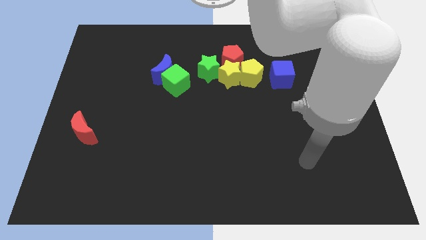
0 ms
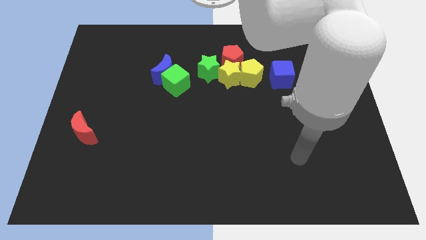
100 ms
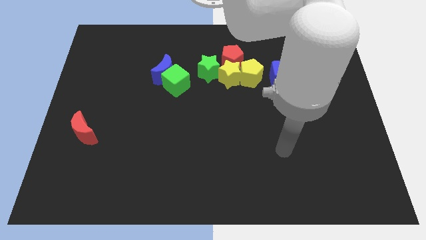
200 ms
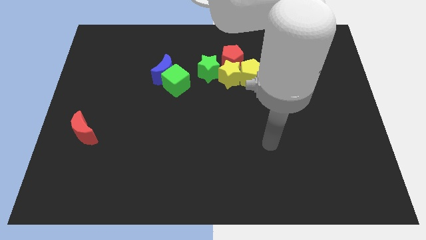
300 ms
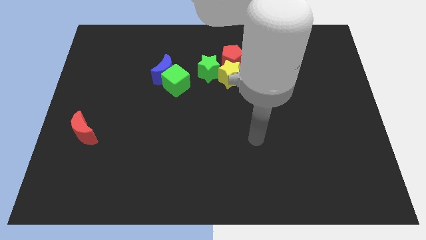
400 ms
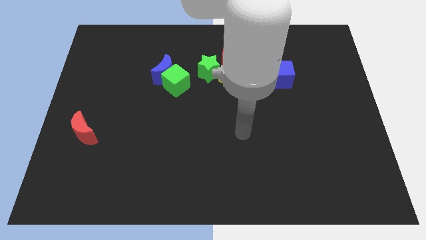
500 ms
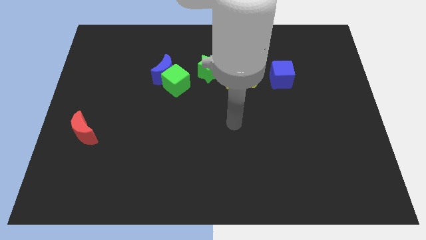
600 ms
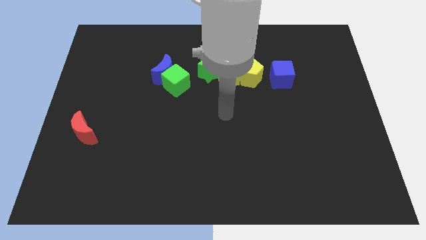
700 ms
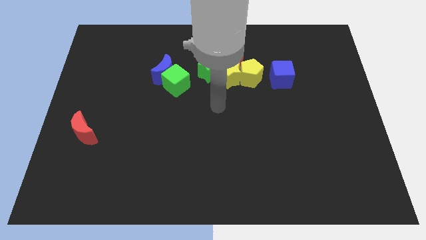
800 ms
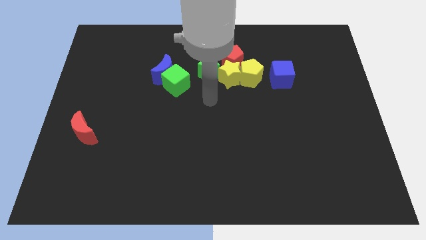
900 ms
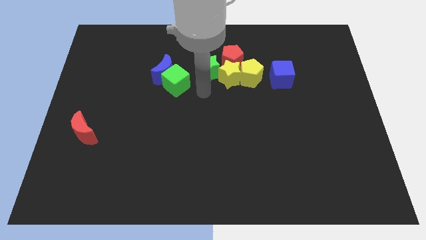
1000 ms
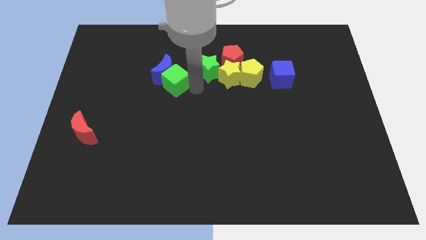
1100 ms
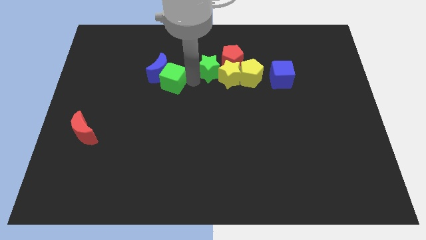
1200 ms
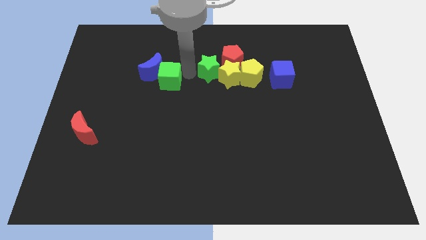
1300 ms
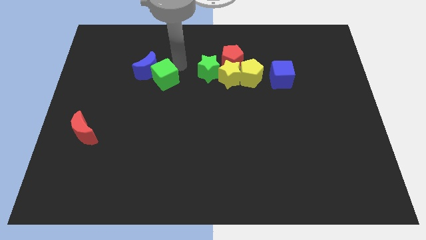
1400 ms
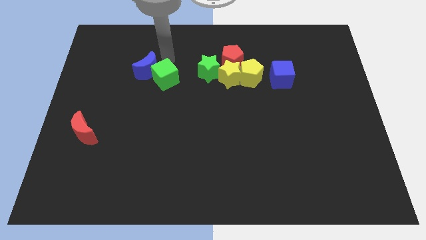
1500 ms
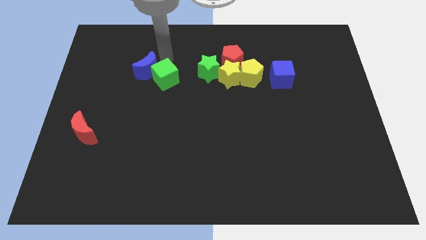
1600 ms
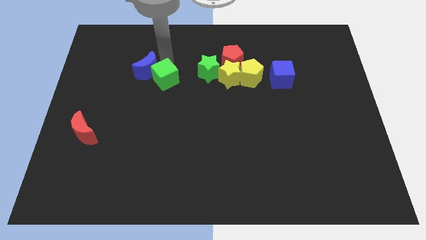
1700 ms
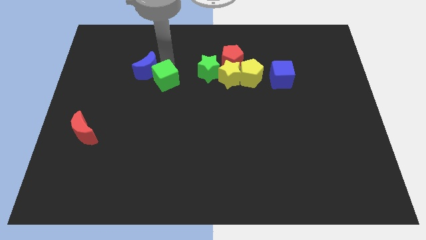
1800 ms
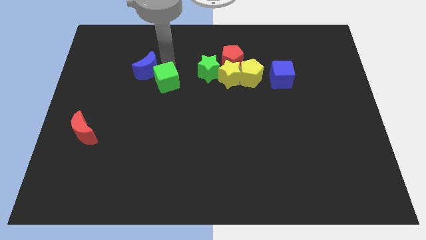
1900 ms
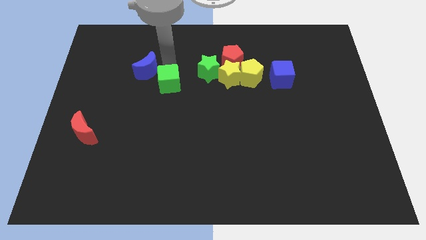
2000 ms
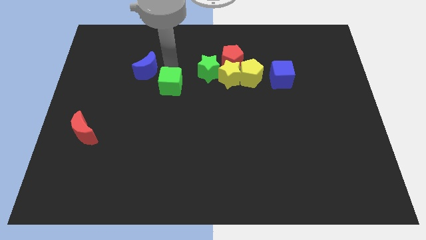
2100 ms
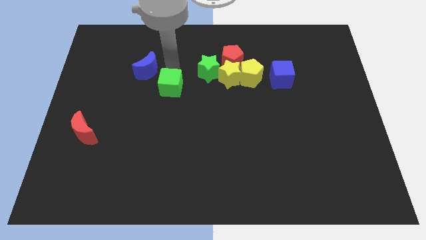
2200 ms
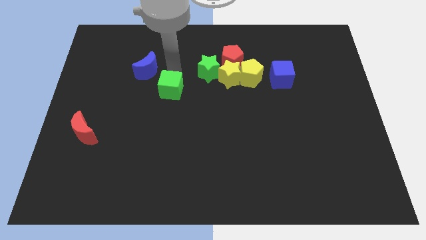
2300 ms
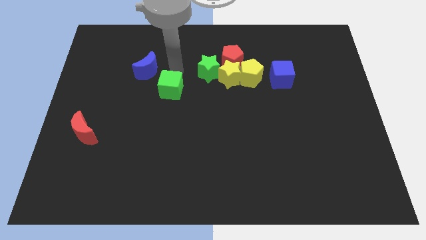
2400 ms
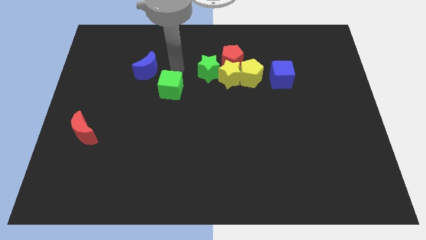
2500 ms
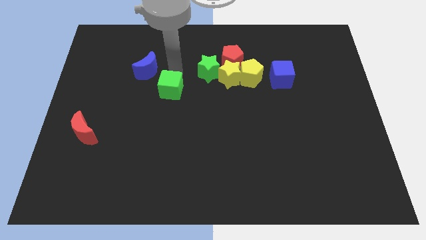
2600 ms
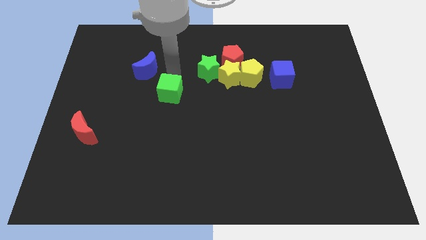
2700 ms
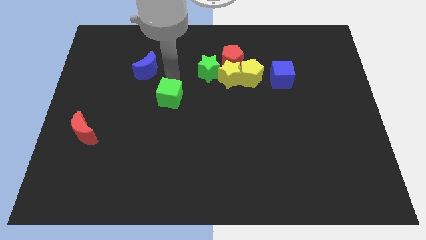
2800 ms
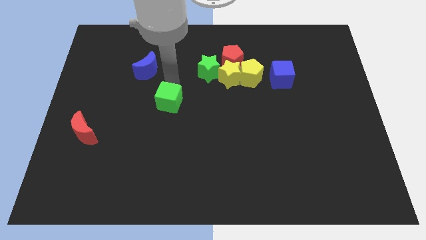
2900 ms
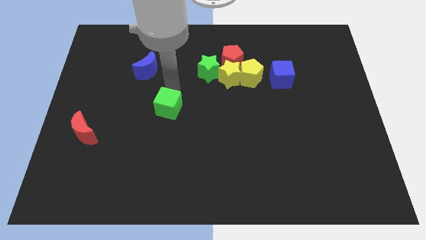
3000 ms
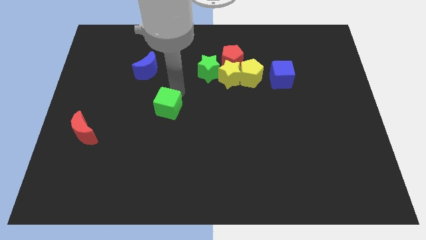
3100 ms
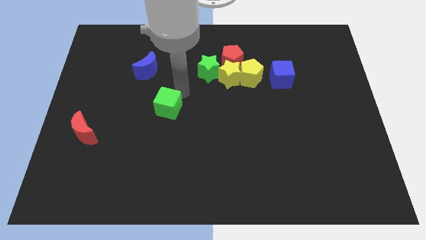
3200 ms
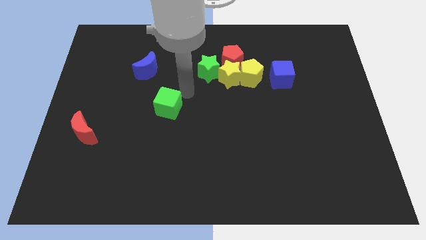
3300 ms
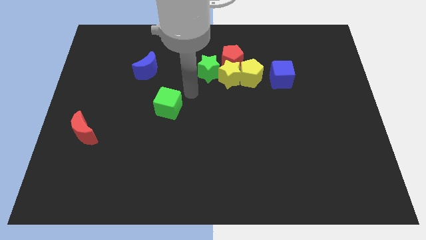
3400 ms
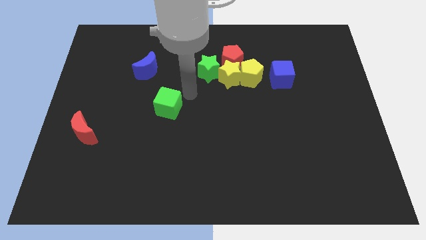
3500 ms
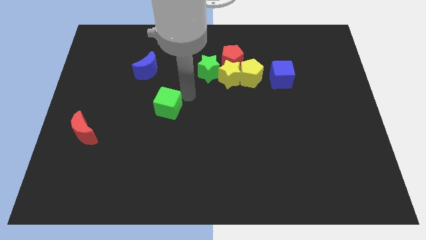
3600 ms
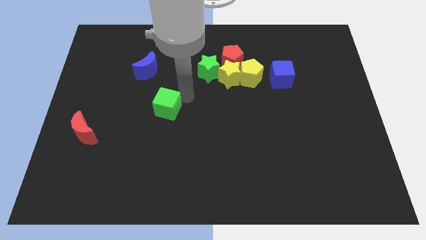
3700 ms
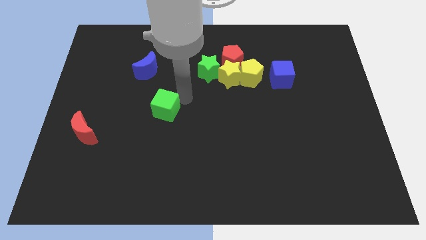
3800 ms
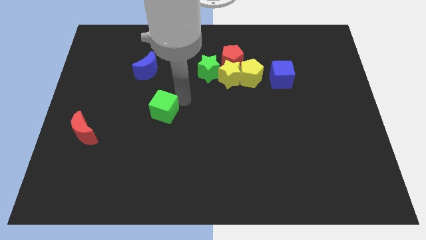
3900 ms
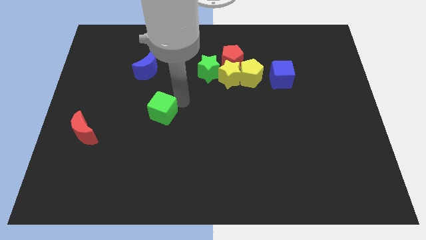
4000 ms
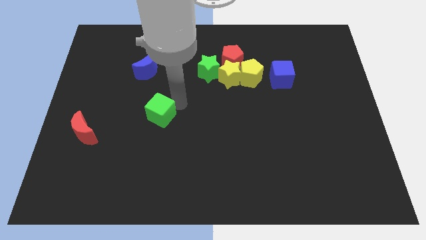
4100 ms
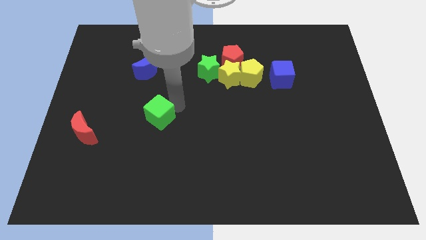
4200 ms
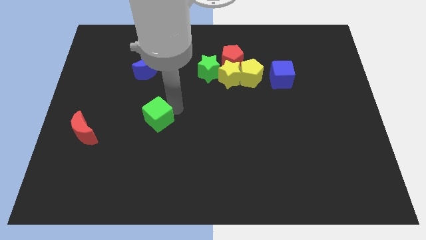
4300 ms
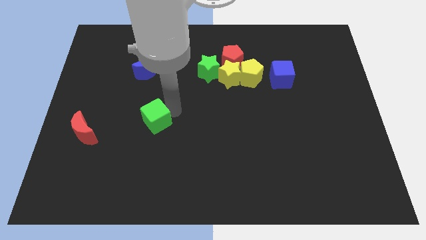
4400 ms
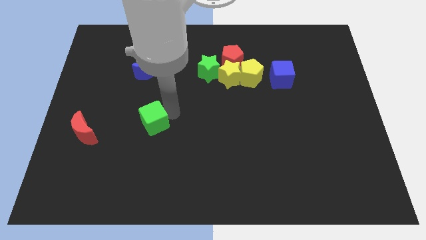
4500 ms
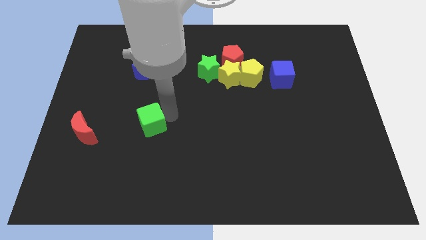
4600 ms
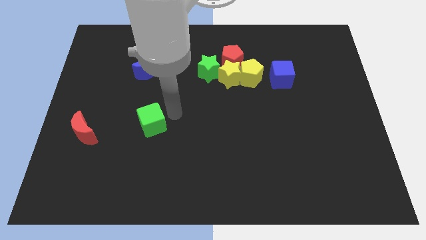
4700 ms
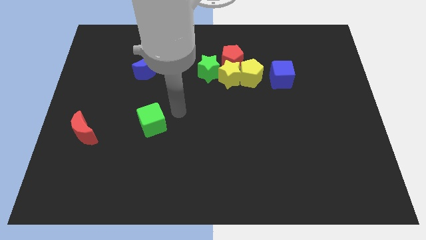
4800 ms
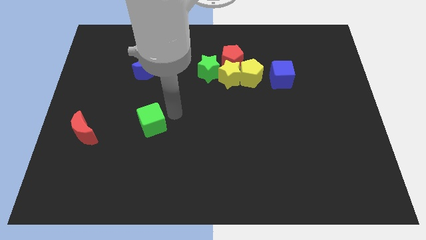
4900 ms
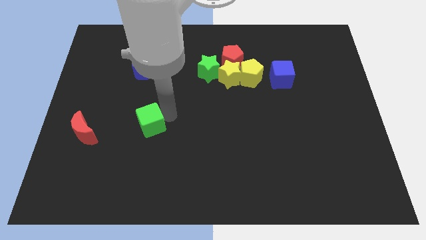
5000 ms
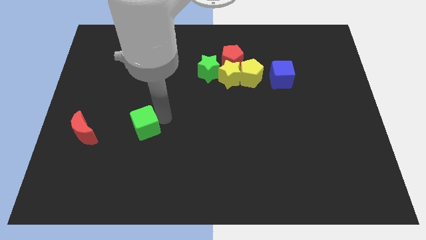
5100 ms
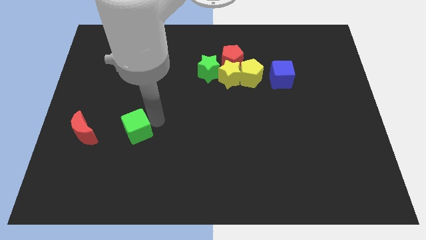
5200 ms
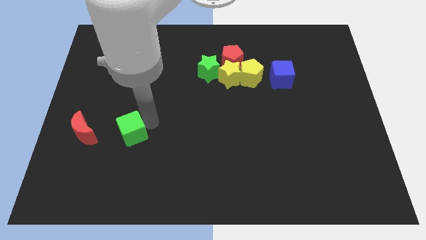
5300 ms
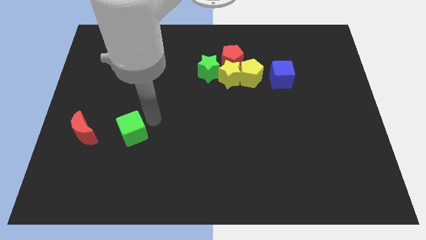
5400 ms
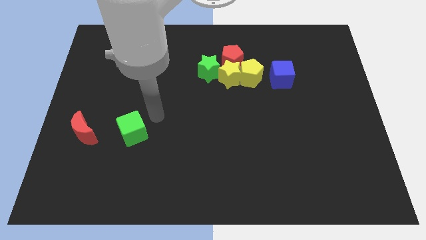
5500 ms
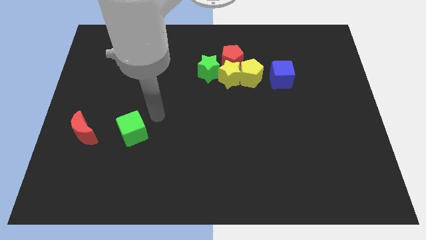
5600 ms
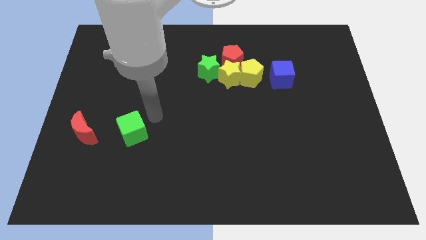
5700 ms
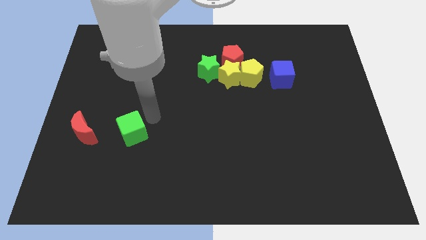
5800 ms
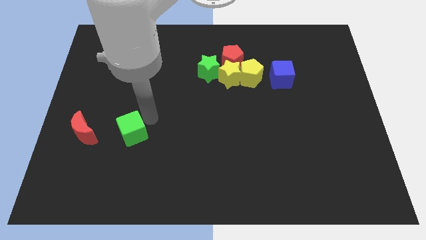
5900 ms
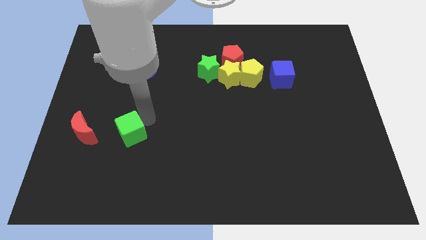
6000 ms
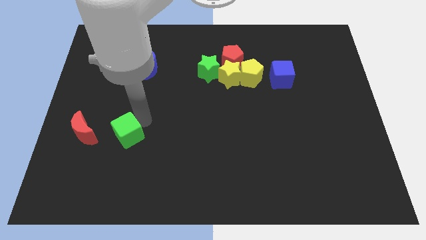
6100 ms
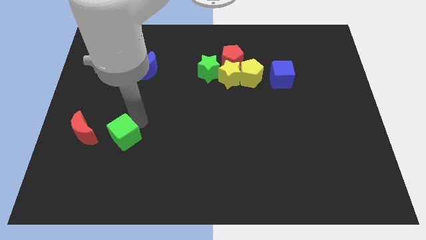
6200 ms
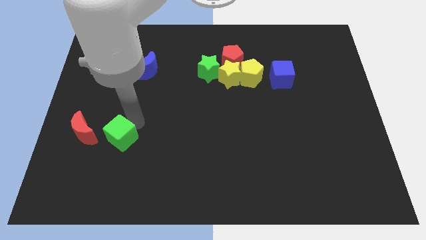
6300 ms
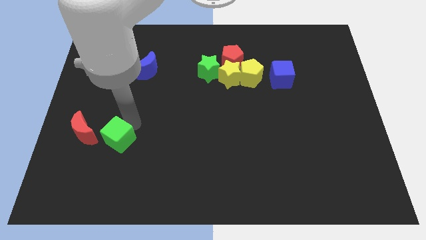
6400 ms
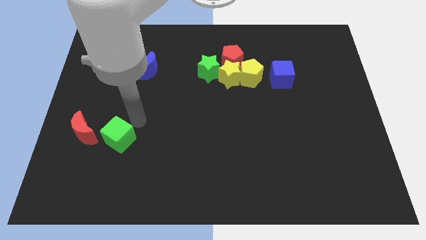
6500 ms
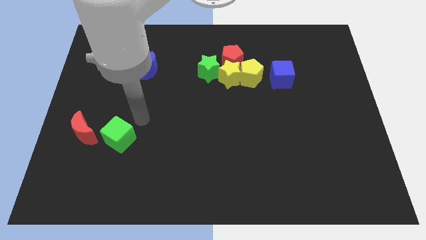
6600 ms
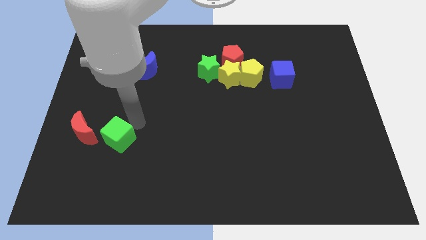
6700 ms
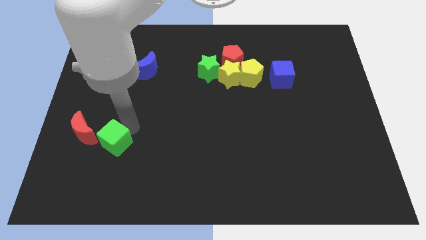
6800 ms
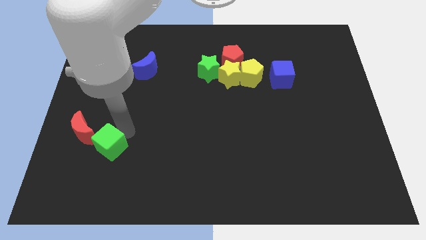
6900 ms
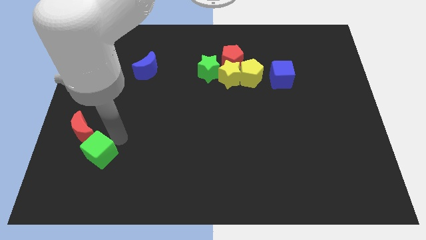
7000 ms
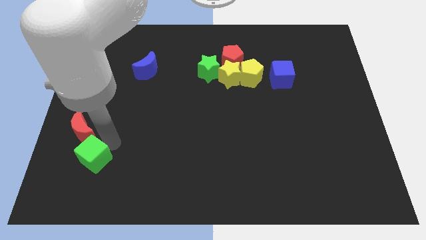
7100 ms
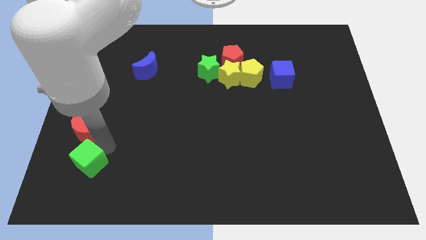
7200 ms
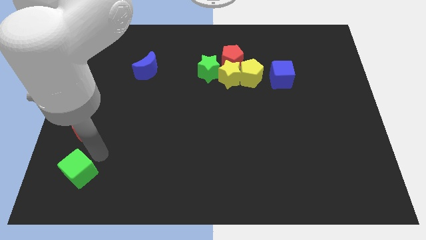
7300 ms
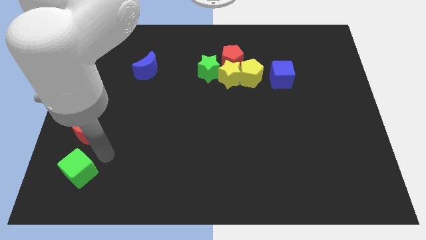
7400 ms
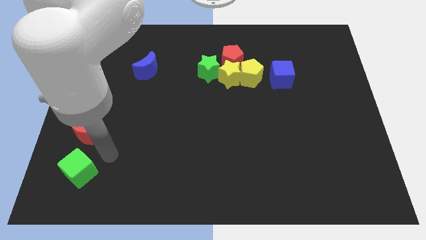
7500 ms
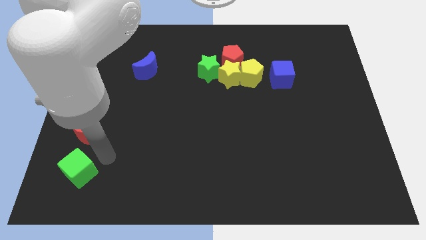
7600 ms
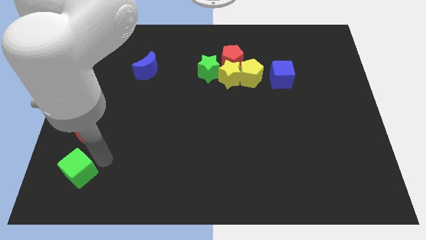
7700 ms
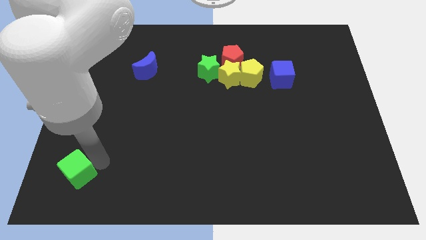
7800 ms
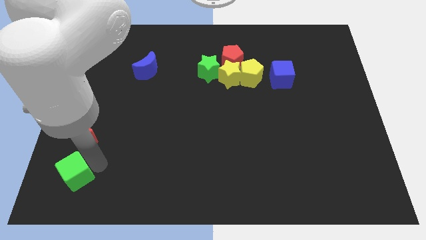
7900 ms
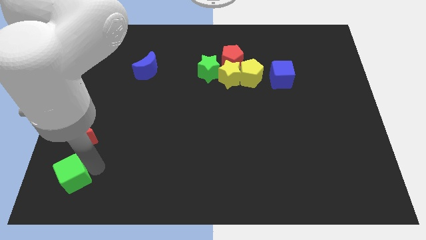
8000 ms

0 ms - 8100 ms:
slide the green cube to the bottom left corner

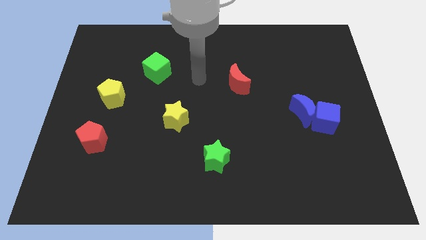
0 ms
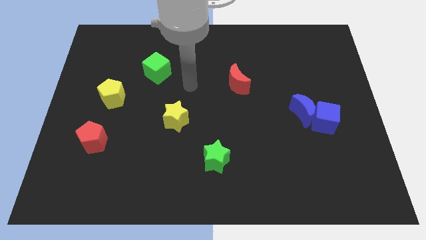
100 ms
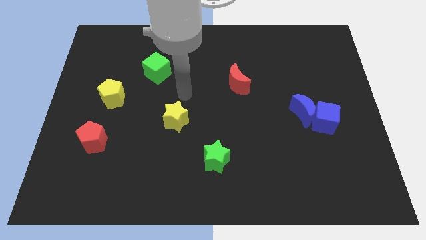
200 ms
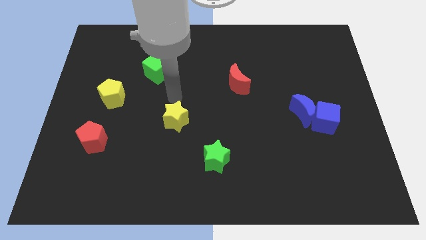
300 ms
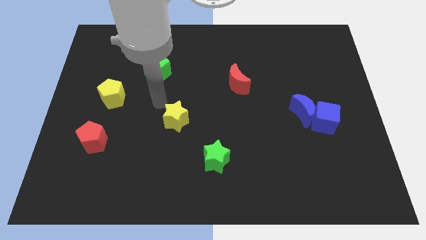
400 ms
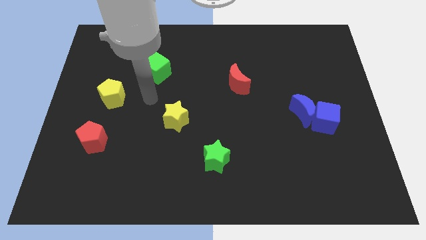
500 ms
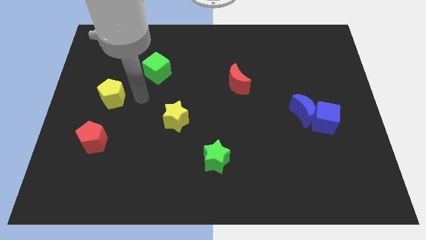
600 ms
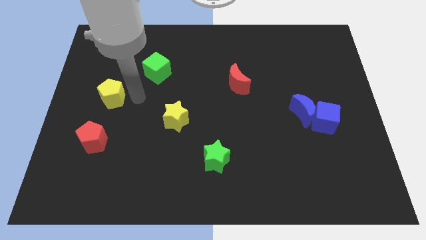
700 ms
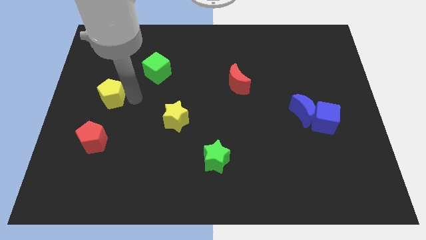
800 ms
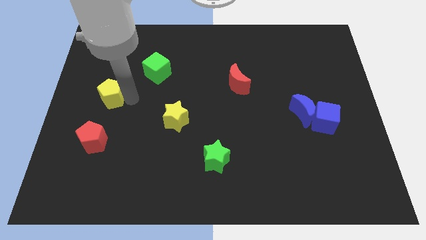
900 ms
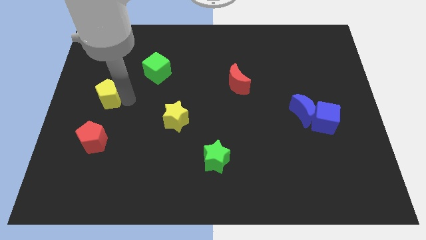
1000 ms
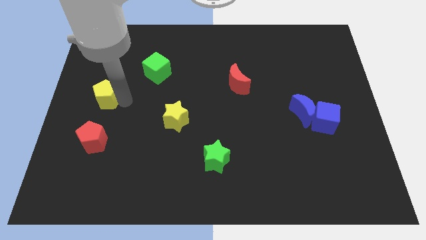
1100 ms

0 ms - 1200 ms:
put the yellow pentagon to the center left
